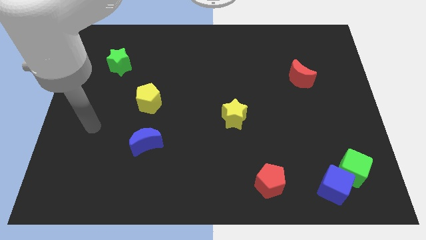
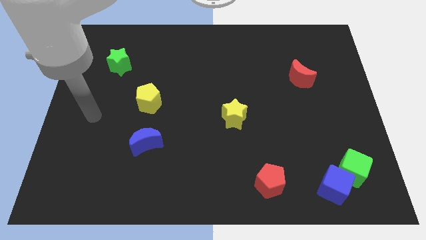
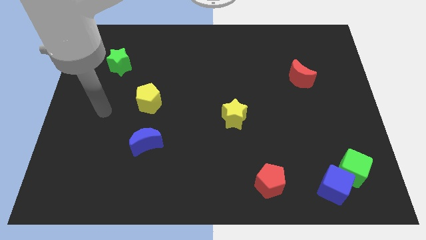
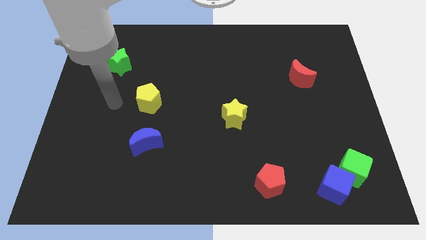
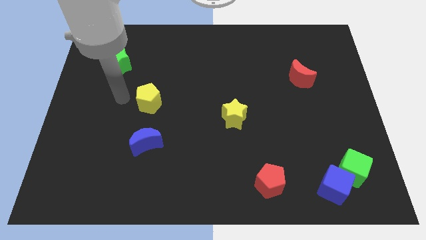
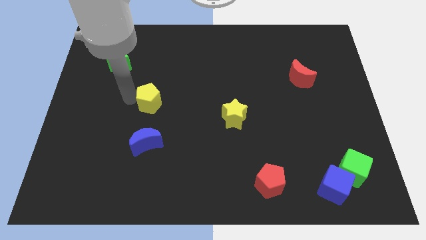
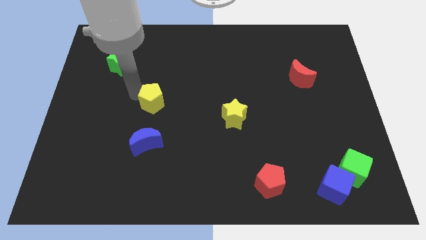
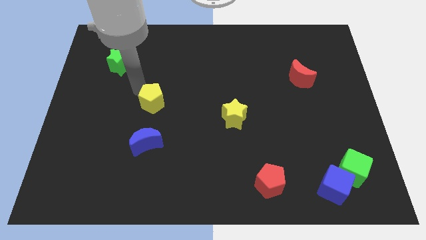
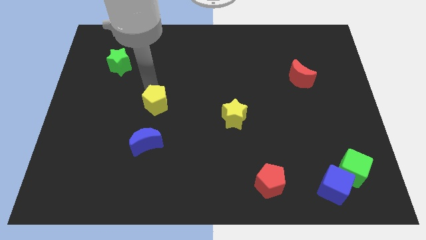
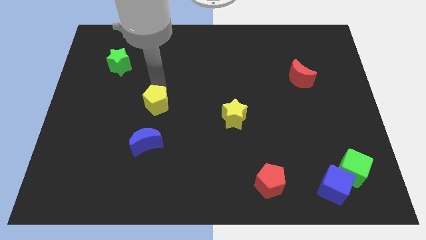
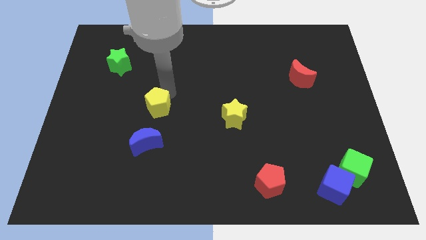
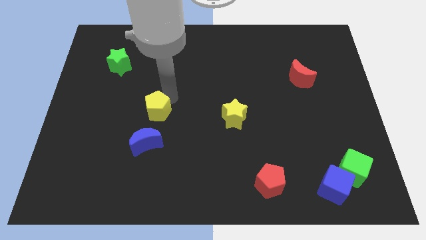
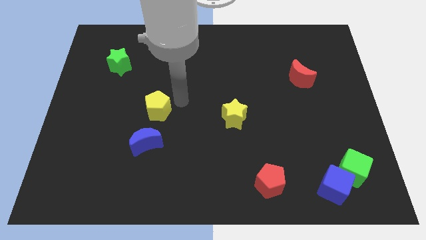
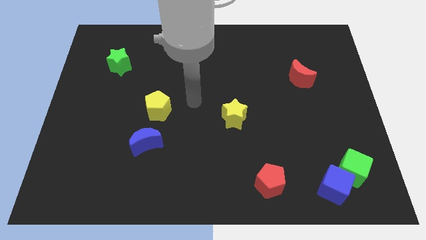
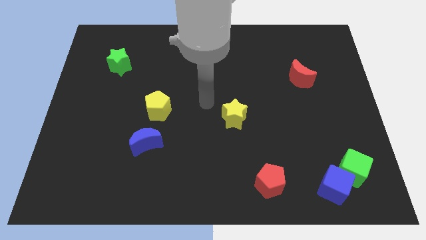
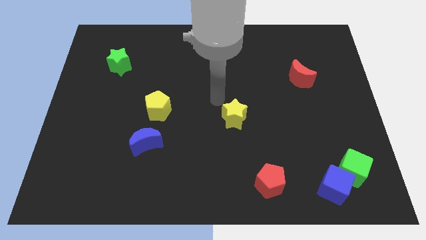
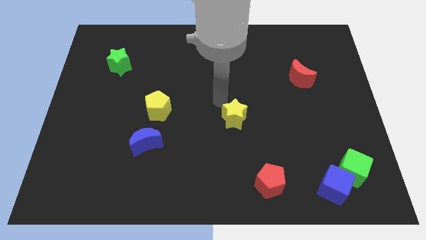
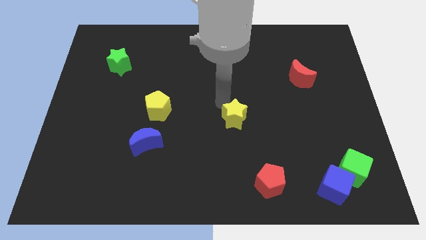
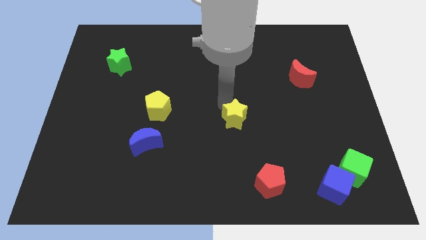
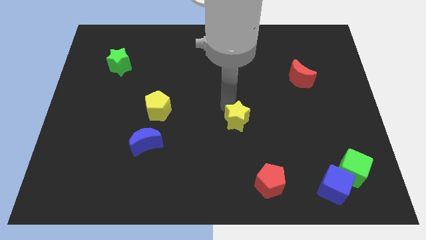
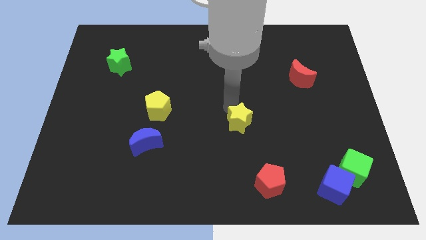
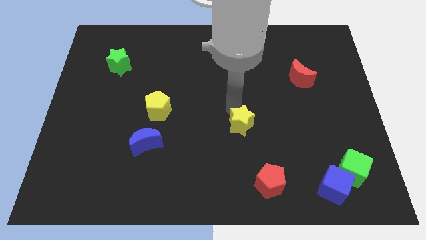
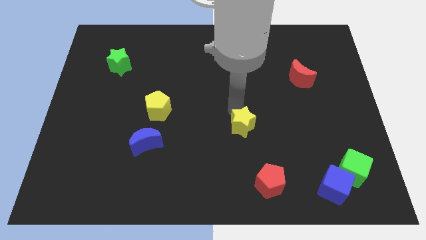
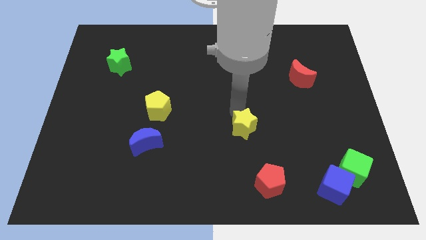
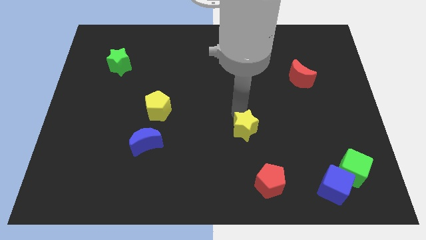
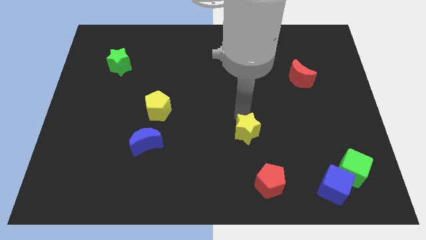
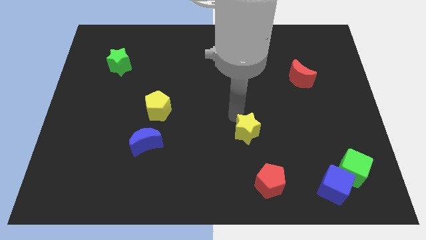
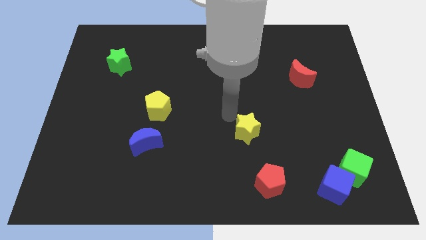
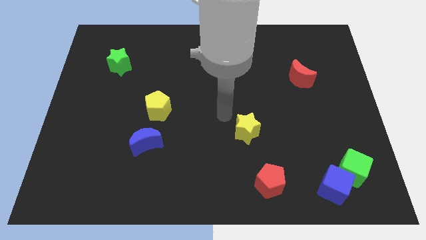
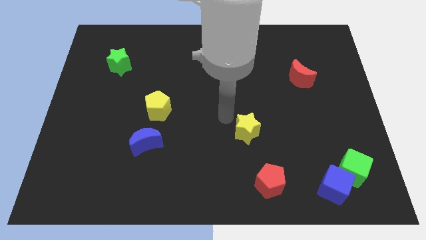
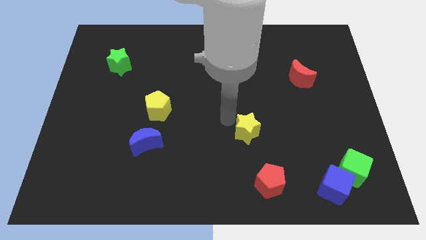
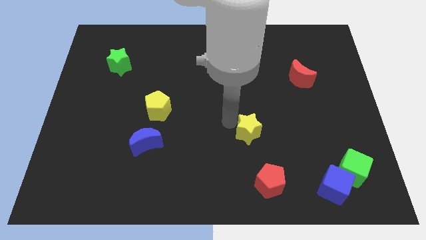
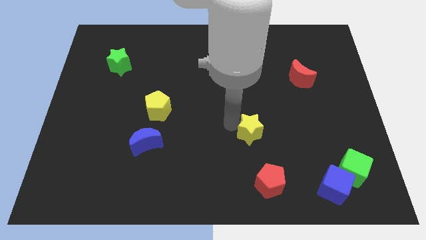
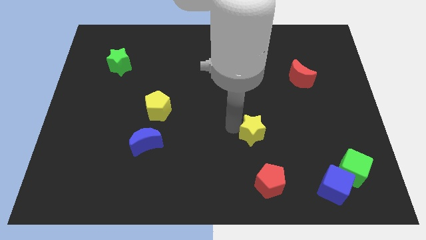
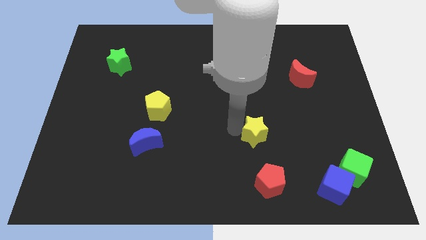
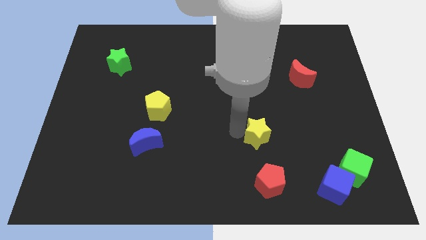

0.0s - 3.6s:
push the yellow star down and to the right a little

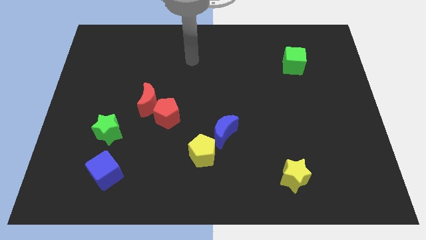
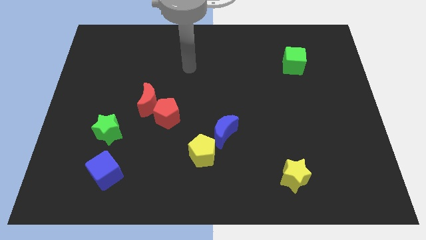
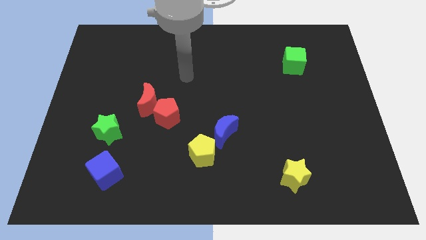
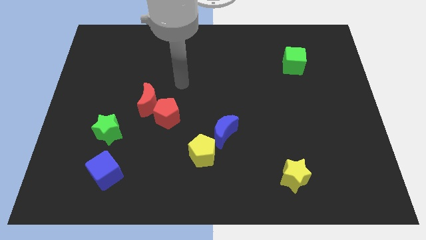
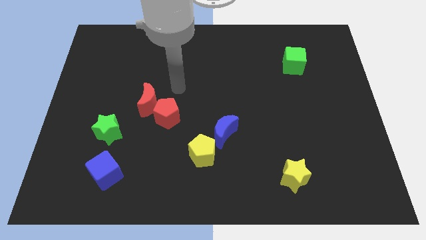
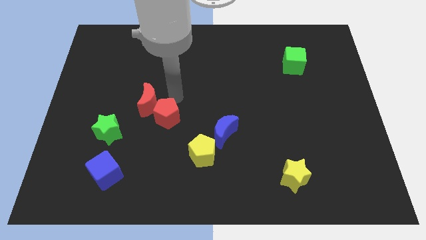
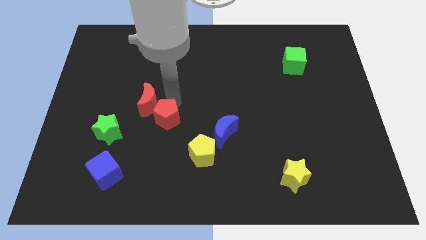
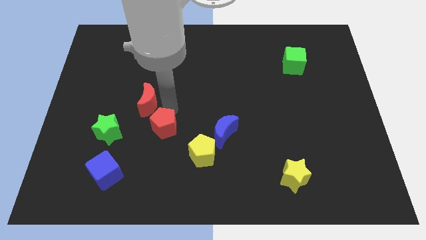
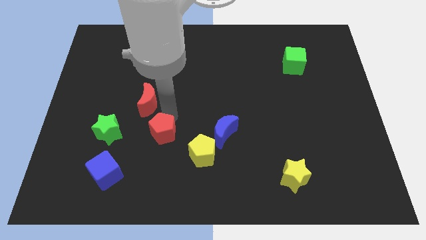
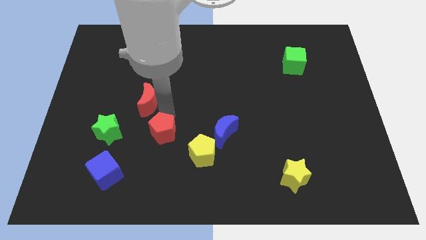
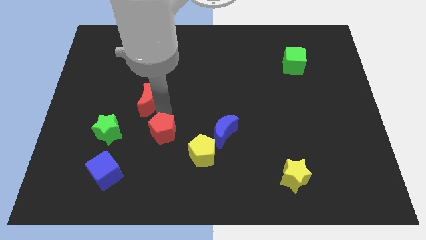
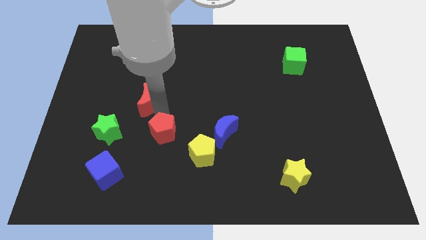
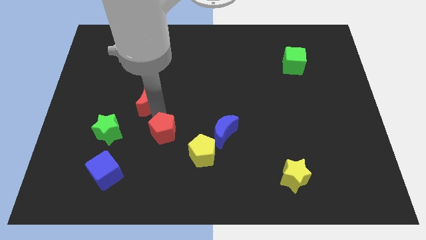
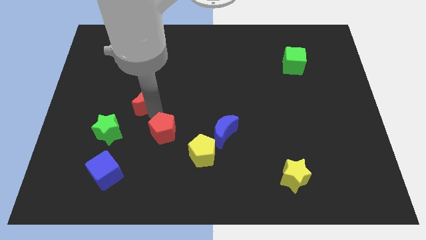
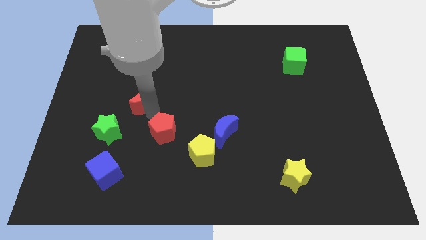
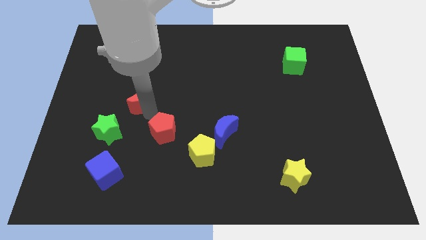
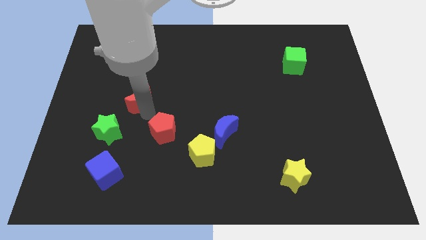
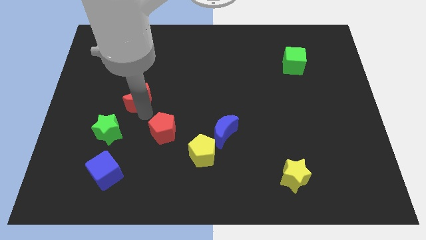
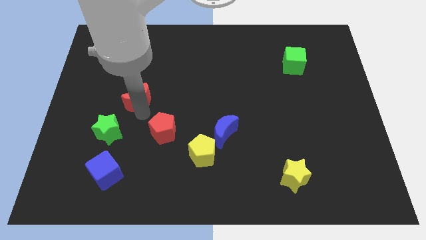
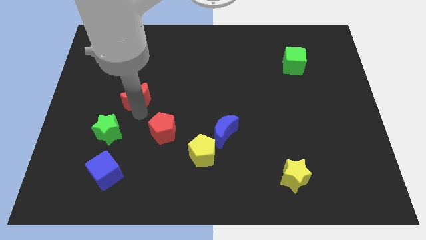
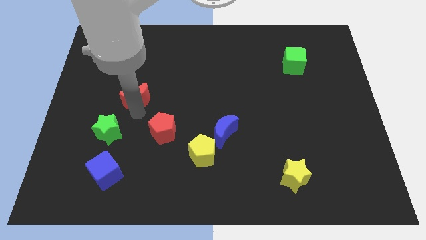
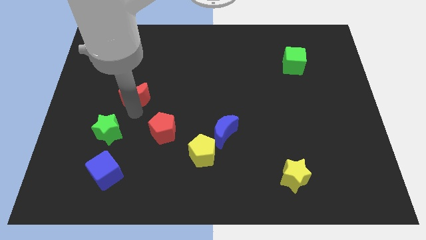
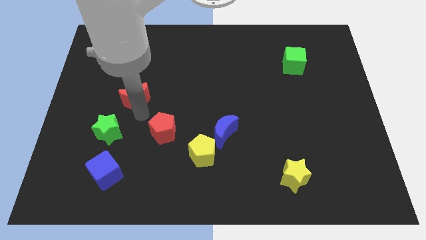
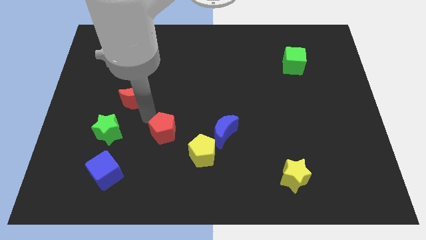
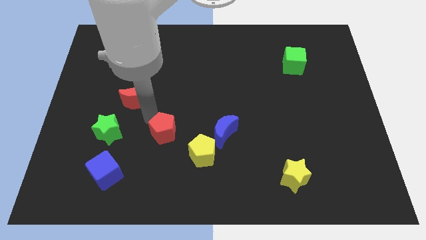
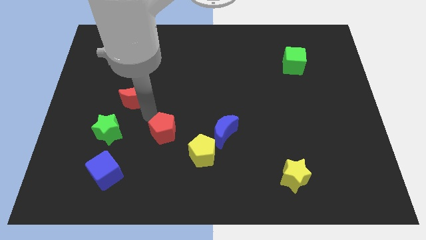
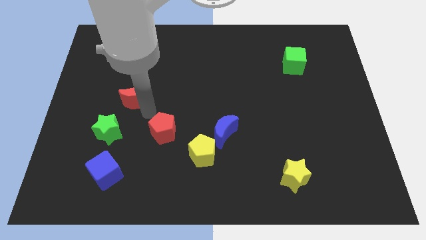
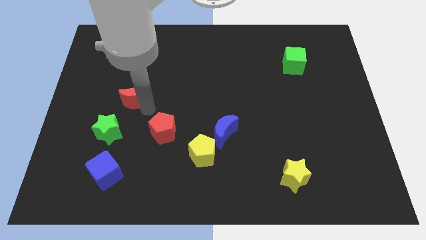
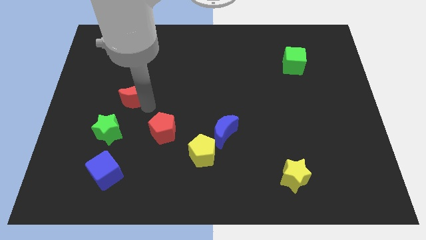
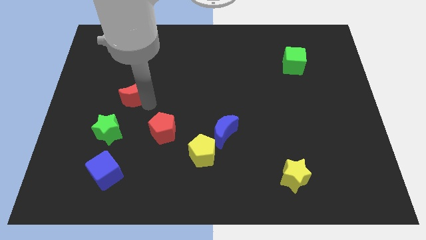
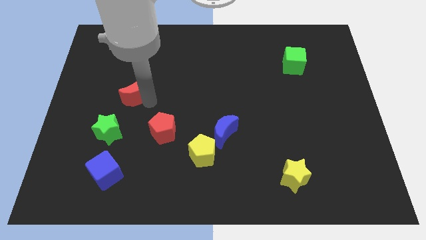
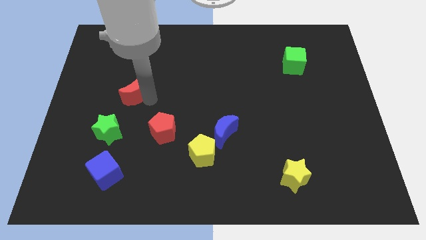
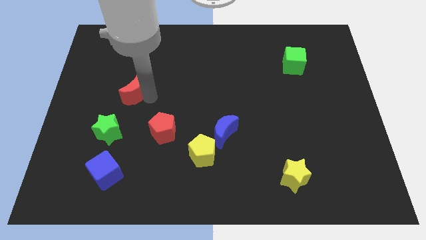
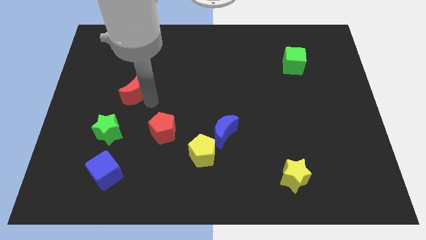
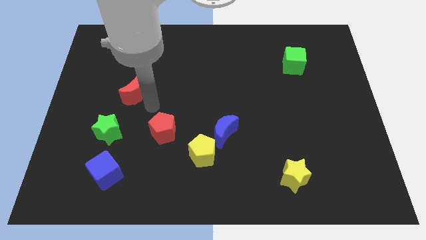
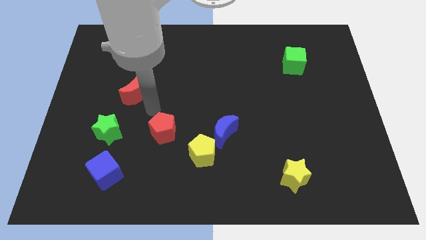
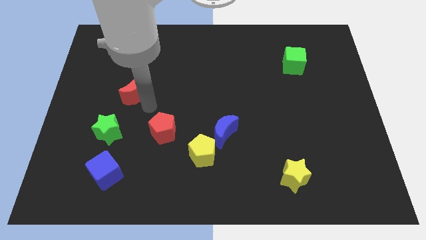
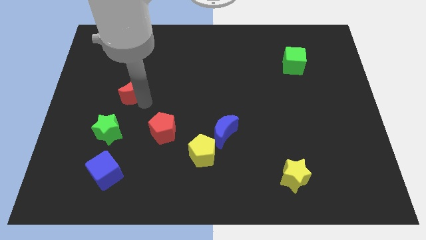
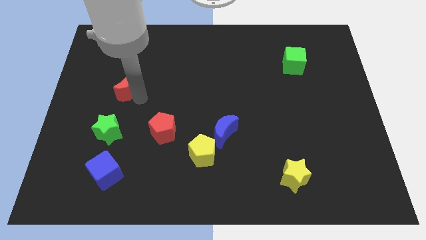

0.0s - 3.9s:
push the red moon upwards and then left a bit

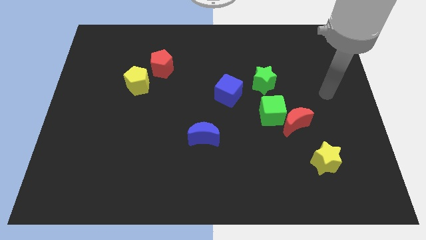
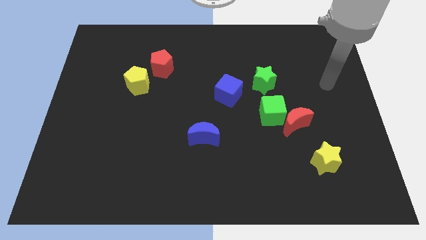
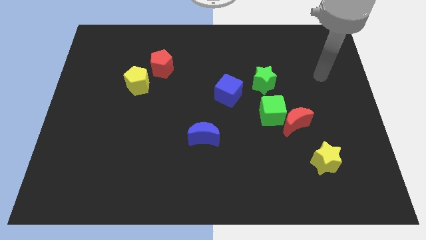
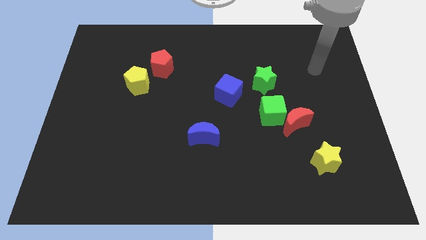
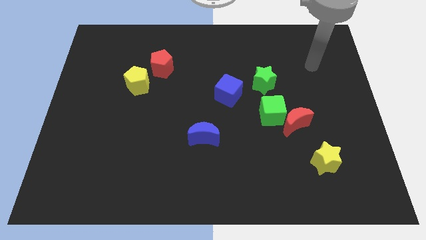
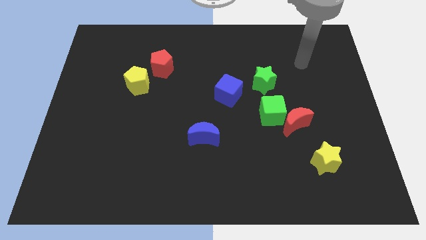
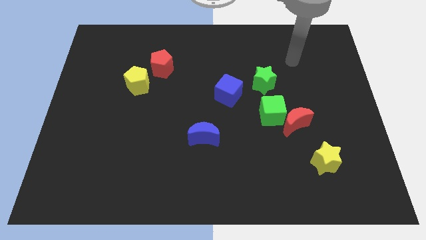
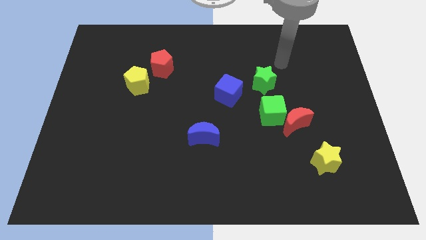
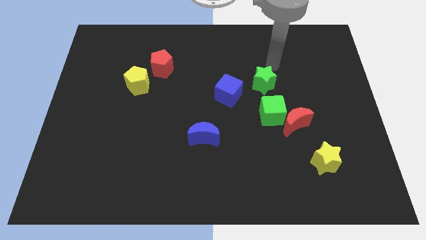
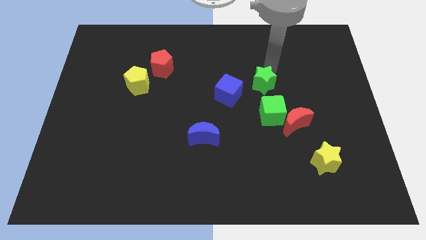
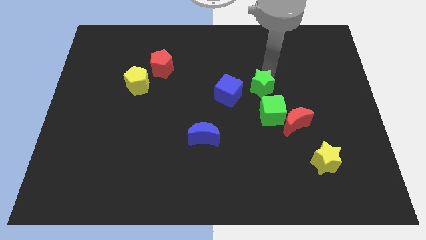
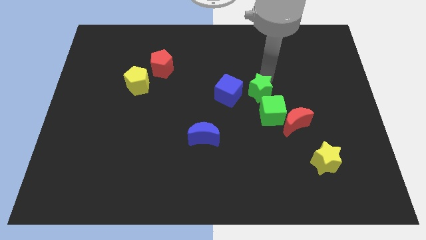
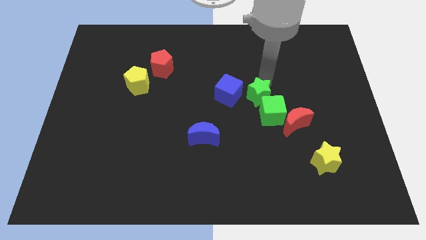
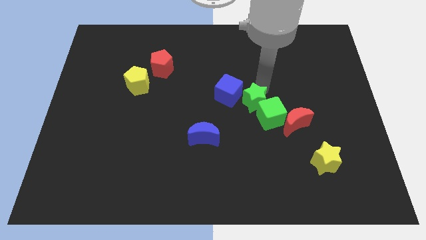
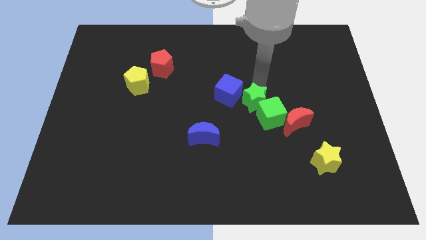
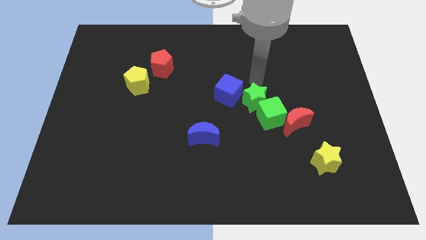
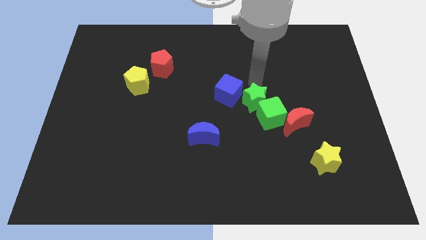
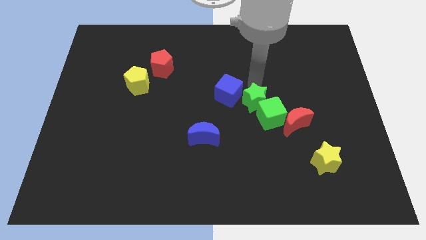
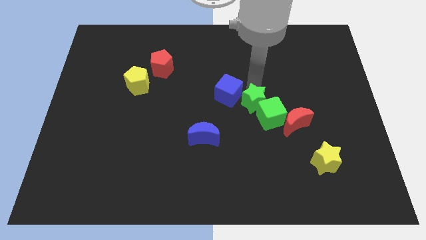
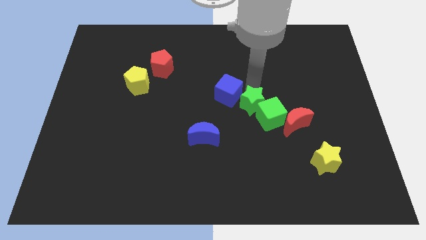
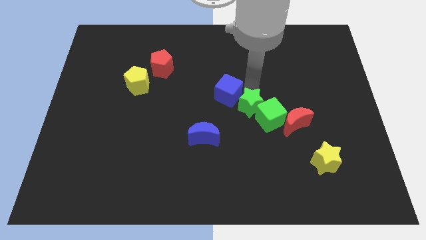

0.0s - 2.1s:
slide the green star down slightly
